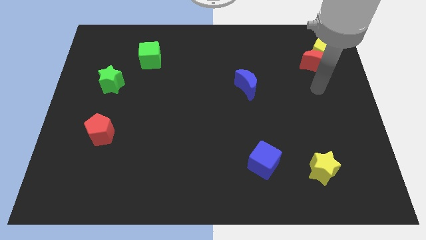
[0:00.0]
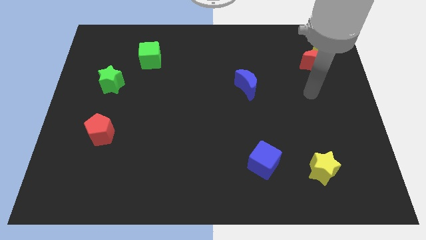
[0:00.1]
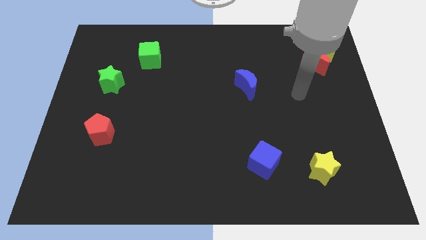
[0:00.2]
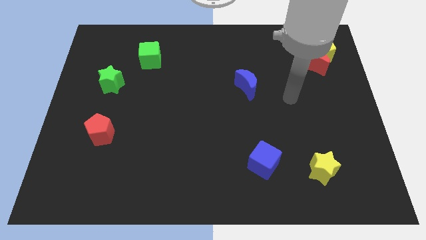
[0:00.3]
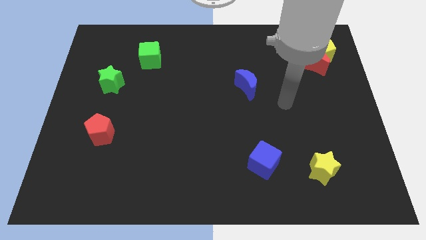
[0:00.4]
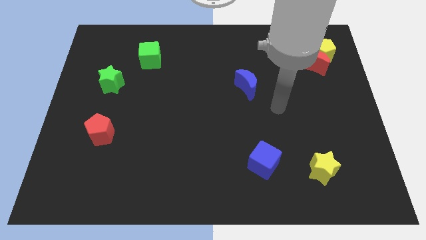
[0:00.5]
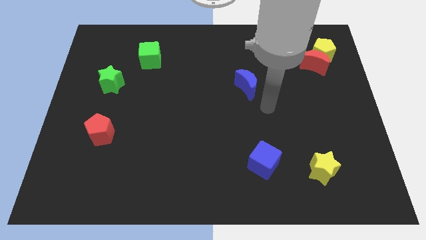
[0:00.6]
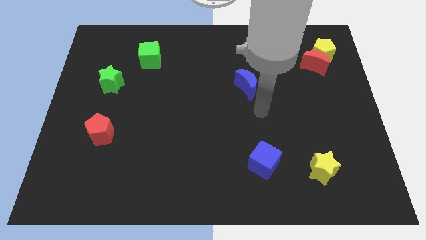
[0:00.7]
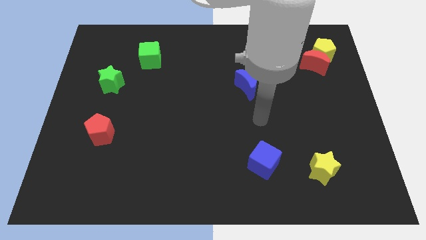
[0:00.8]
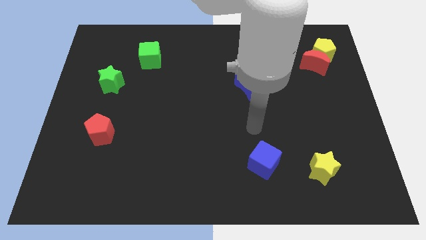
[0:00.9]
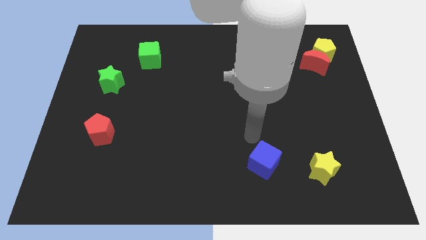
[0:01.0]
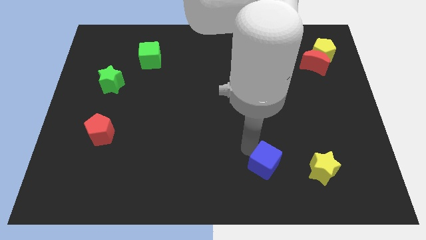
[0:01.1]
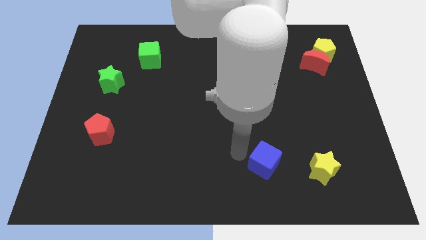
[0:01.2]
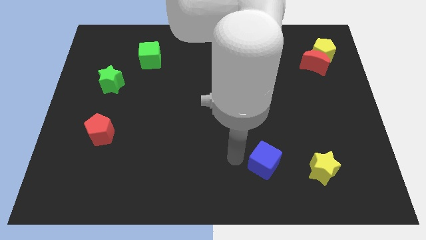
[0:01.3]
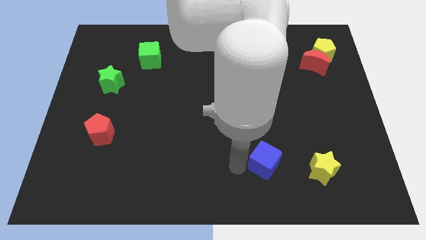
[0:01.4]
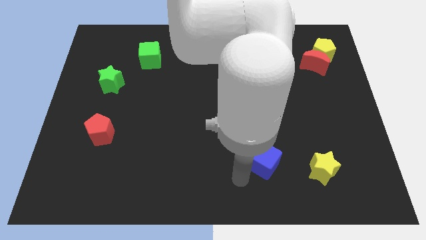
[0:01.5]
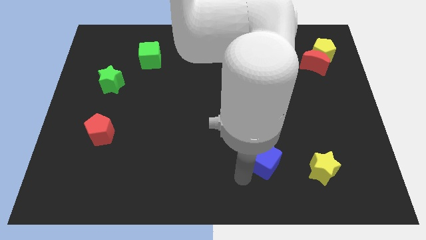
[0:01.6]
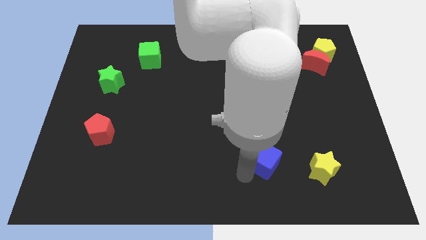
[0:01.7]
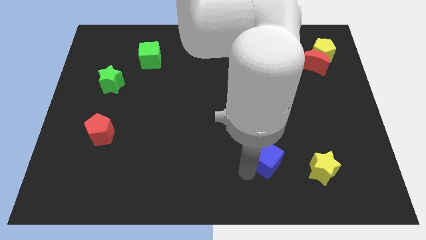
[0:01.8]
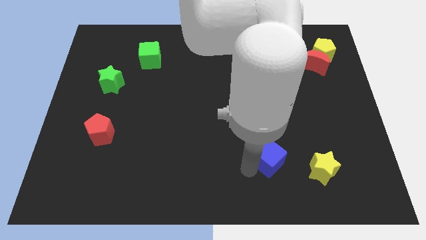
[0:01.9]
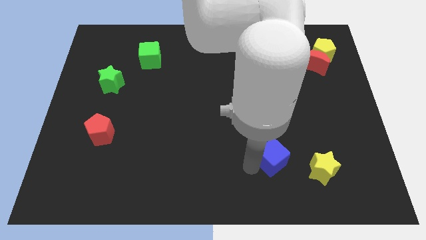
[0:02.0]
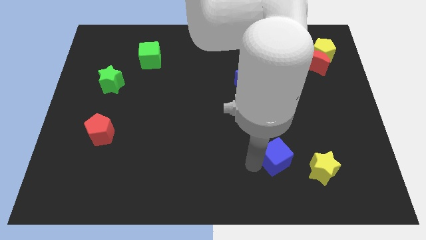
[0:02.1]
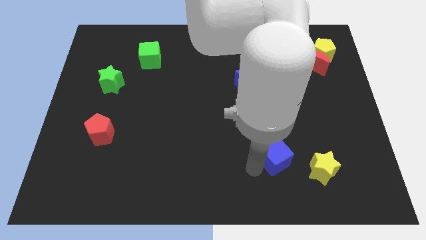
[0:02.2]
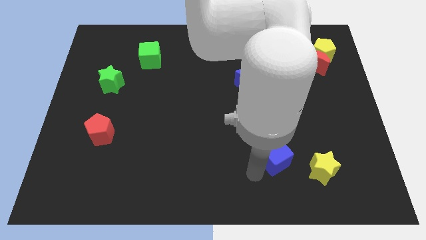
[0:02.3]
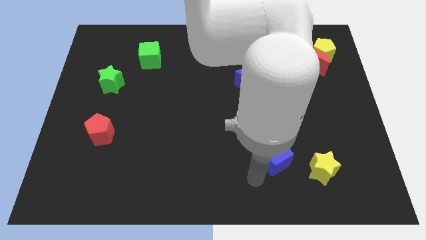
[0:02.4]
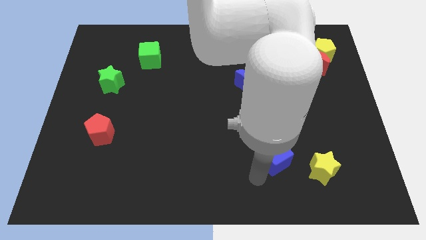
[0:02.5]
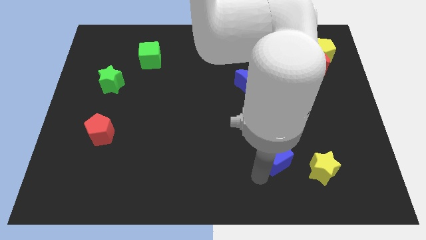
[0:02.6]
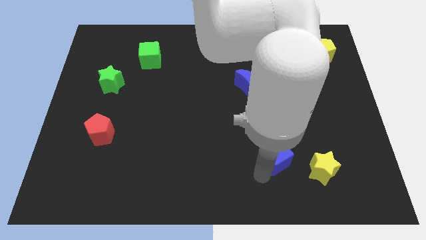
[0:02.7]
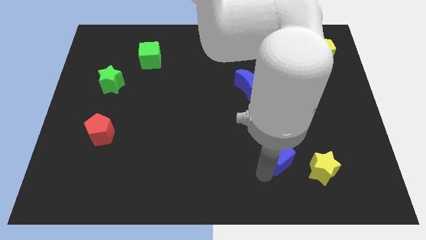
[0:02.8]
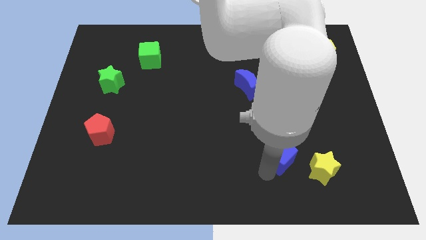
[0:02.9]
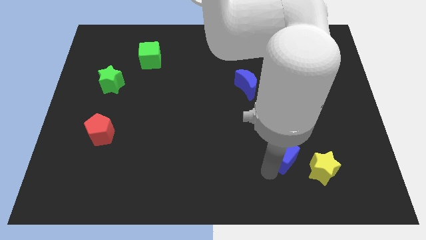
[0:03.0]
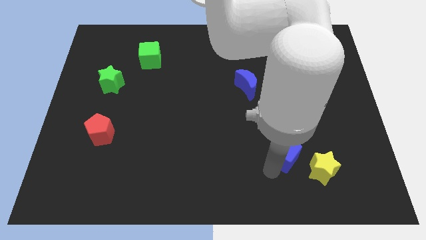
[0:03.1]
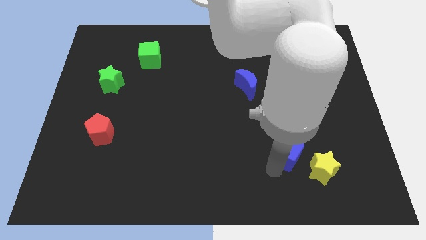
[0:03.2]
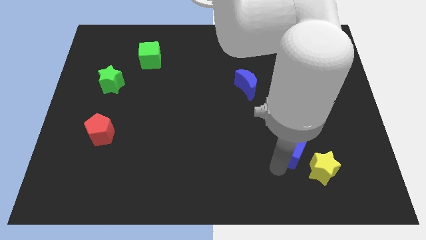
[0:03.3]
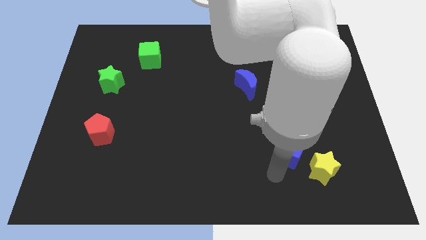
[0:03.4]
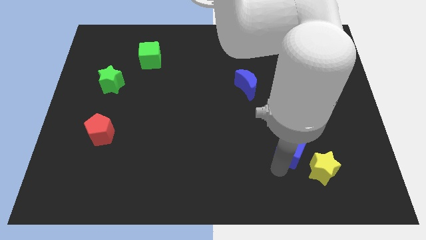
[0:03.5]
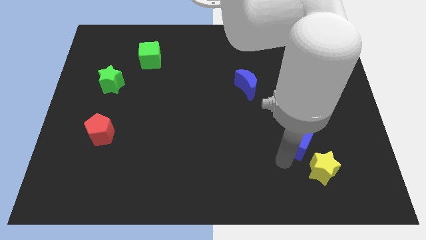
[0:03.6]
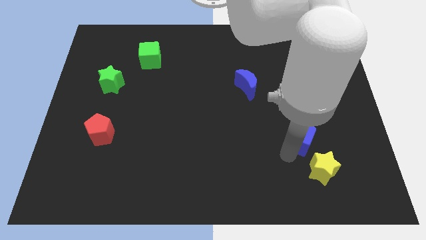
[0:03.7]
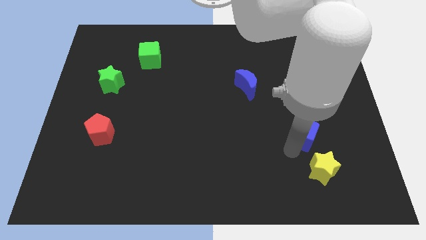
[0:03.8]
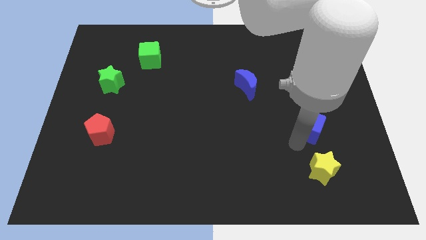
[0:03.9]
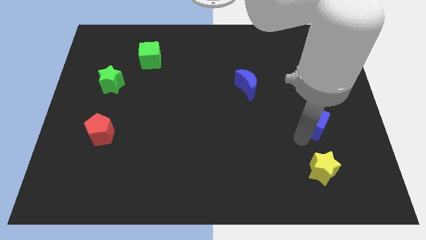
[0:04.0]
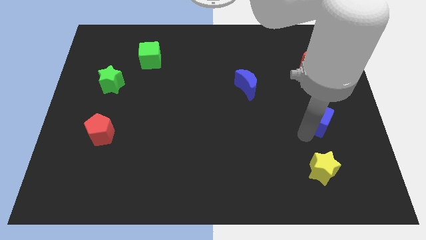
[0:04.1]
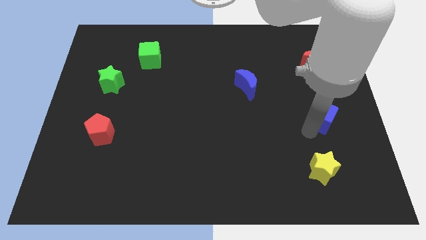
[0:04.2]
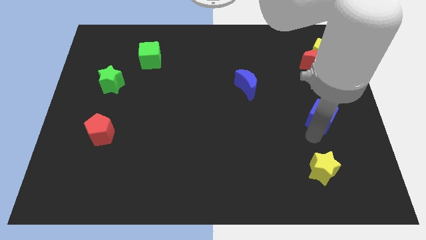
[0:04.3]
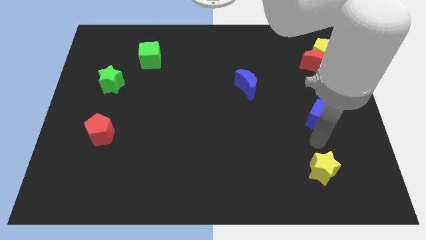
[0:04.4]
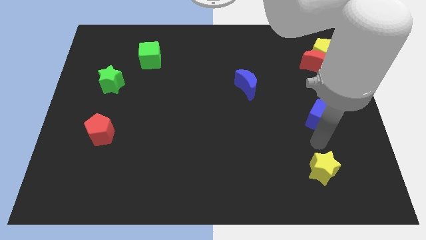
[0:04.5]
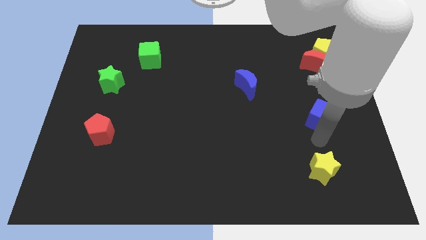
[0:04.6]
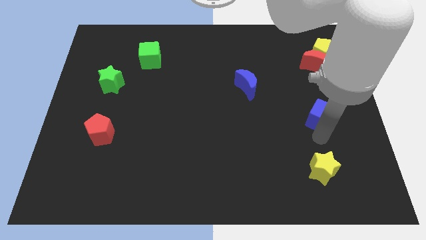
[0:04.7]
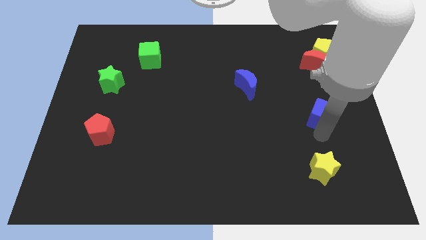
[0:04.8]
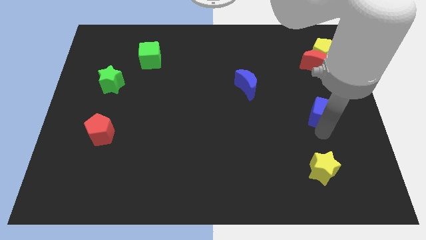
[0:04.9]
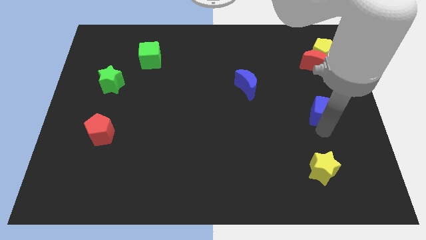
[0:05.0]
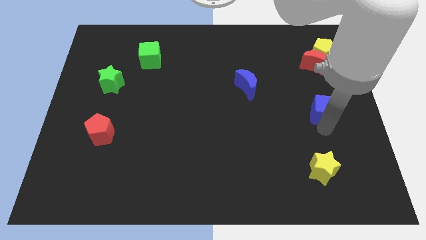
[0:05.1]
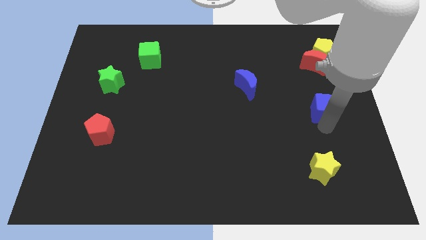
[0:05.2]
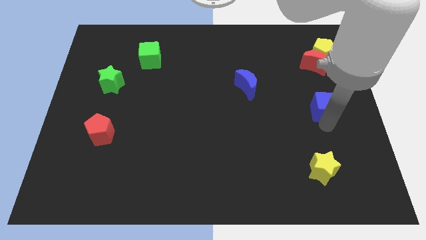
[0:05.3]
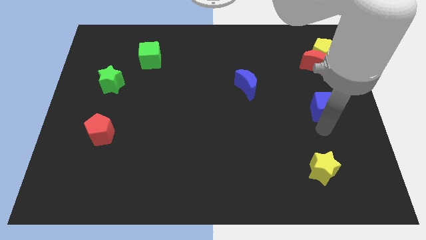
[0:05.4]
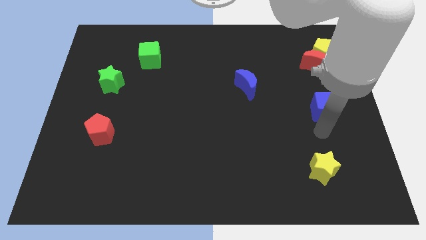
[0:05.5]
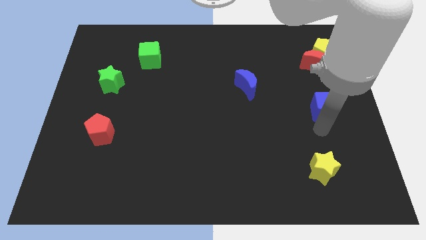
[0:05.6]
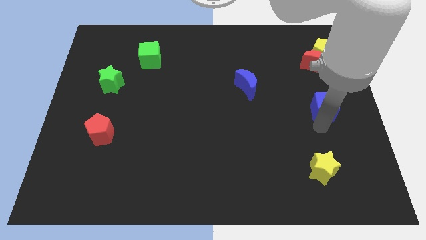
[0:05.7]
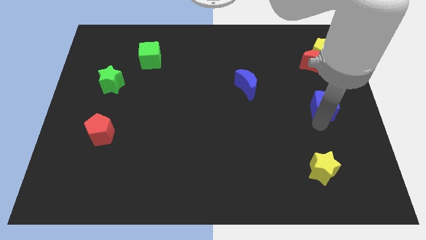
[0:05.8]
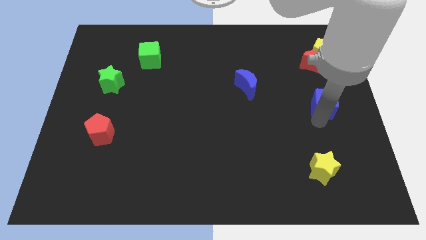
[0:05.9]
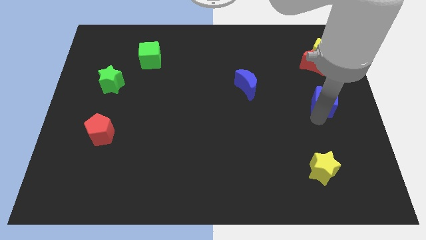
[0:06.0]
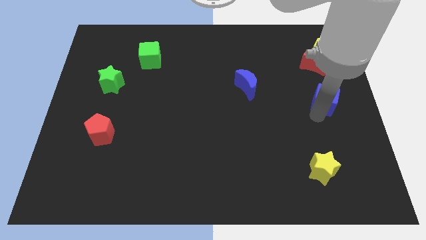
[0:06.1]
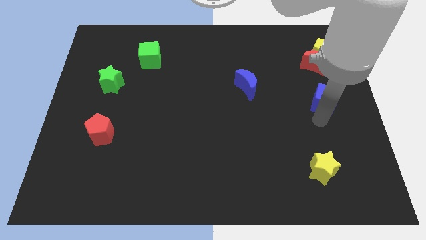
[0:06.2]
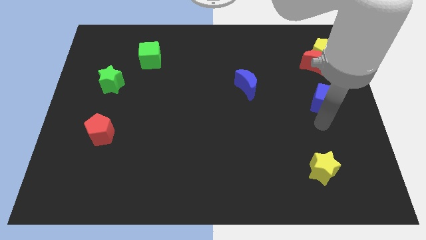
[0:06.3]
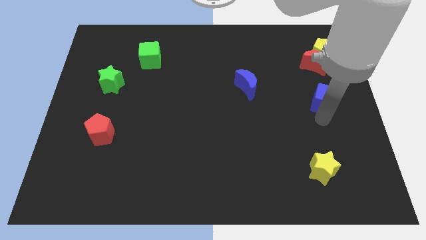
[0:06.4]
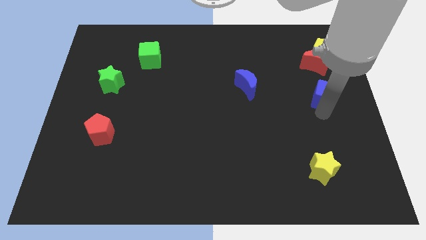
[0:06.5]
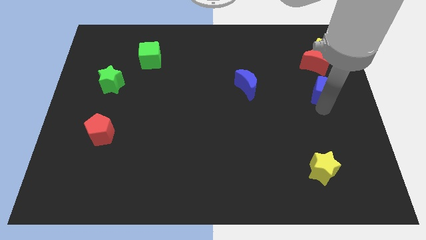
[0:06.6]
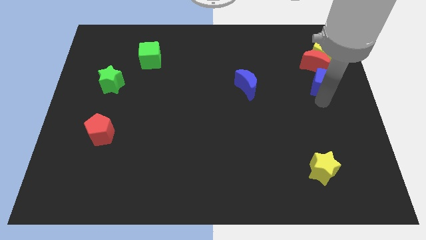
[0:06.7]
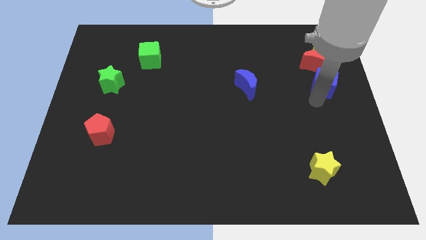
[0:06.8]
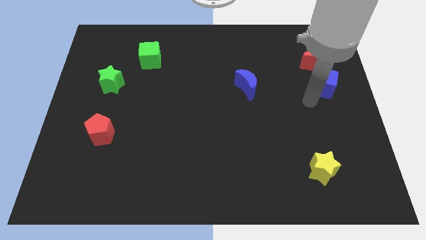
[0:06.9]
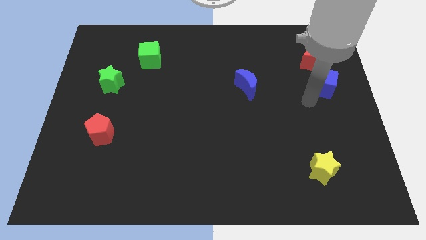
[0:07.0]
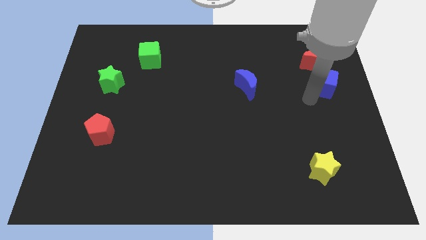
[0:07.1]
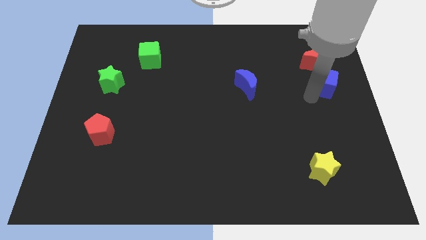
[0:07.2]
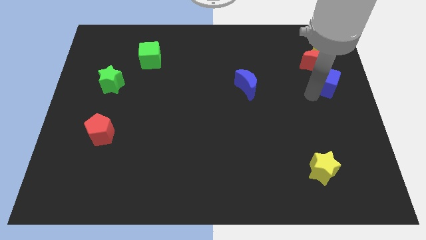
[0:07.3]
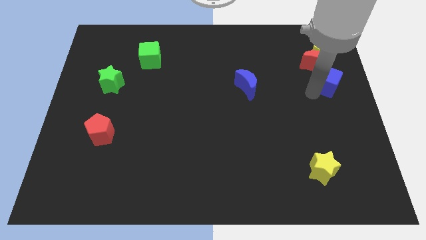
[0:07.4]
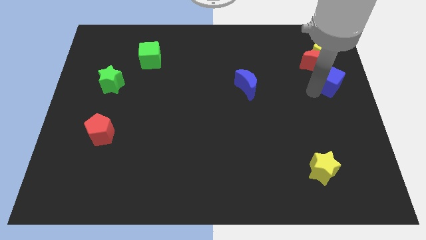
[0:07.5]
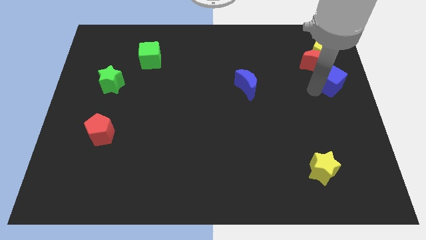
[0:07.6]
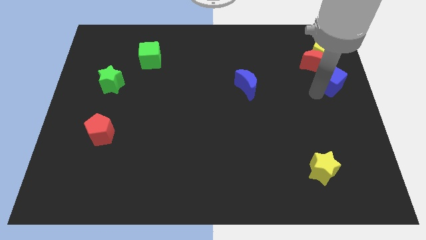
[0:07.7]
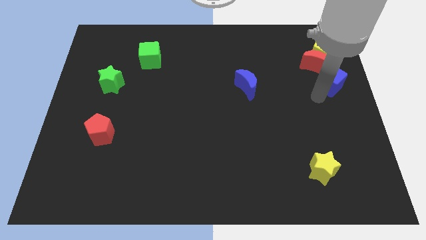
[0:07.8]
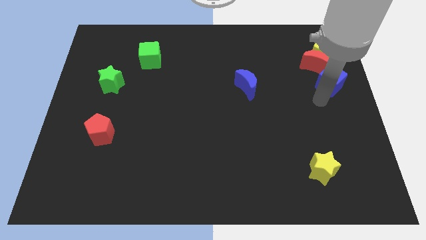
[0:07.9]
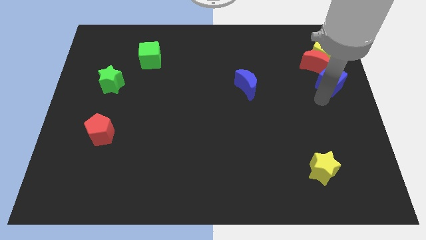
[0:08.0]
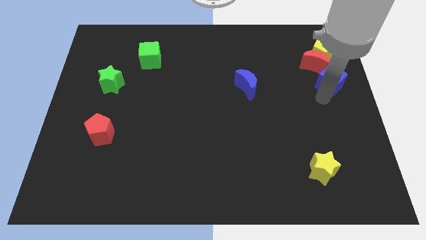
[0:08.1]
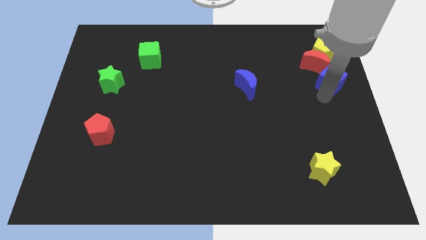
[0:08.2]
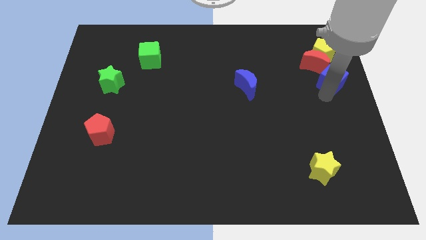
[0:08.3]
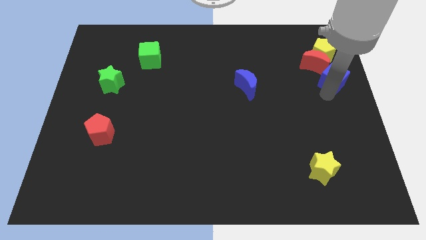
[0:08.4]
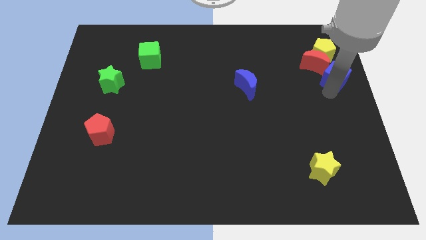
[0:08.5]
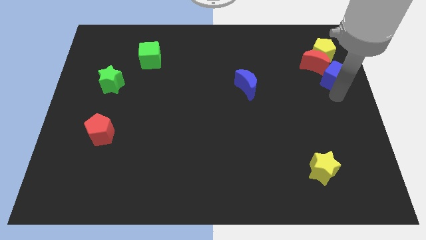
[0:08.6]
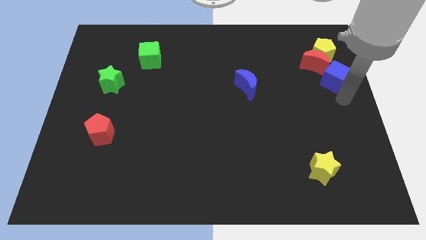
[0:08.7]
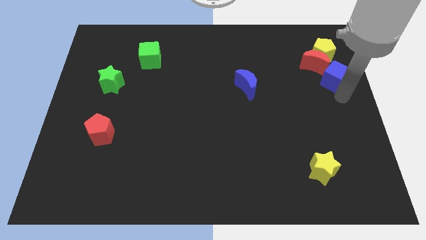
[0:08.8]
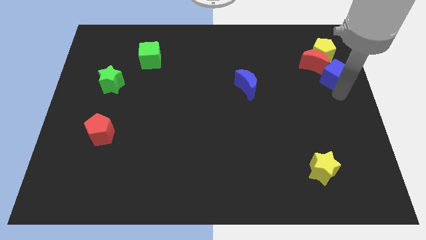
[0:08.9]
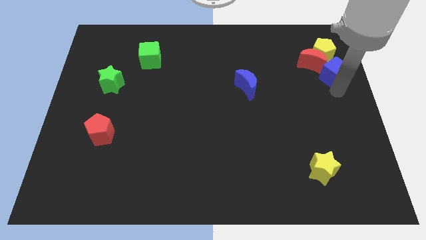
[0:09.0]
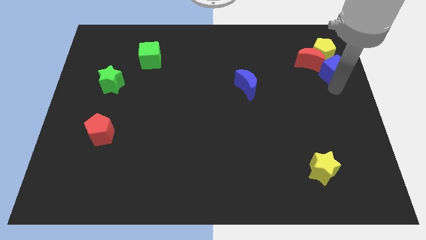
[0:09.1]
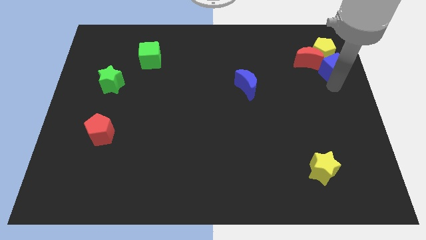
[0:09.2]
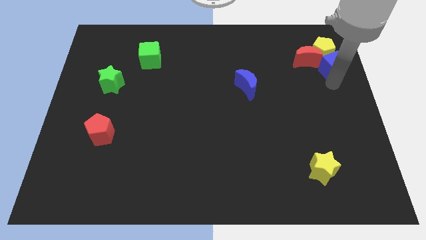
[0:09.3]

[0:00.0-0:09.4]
slide the blue cube to the yellow pentagon
